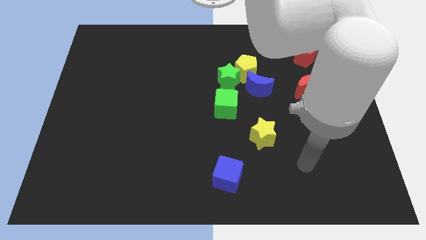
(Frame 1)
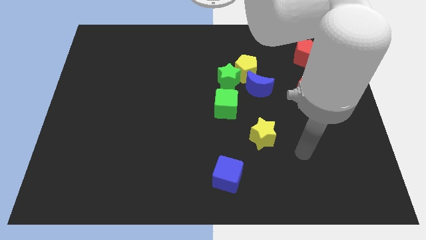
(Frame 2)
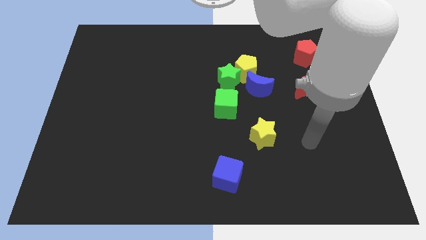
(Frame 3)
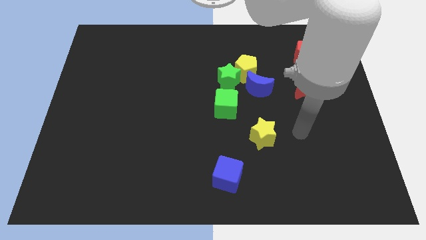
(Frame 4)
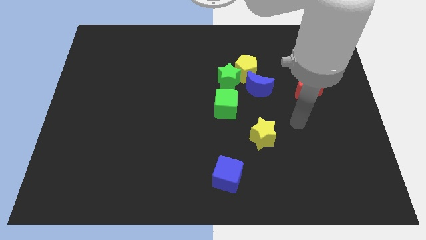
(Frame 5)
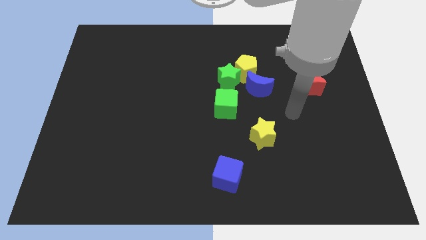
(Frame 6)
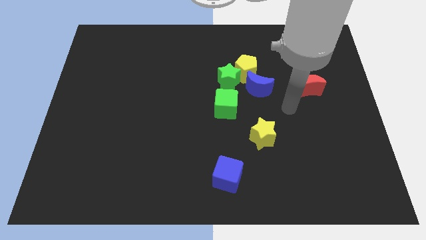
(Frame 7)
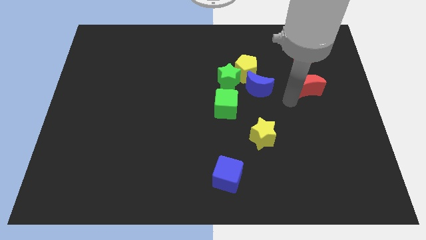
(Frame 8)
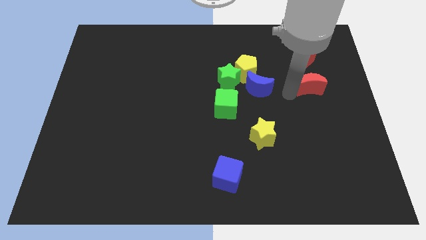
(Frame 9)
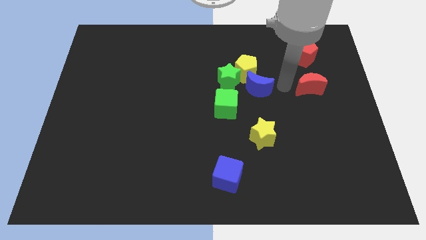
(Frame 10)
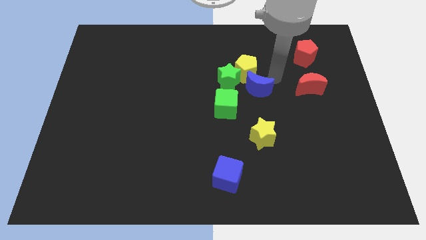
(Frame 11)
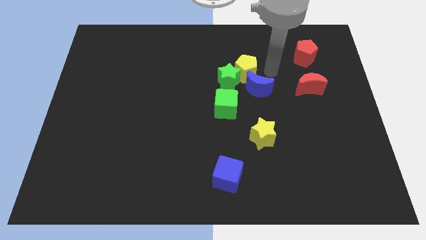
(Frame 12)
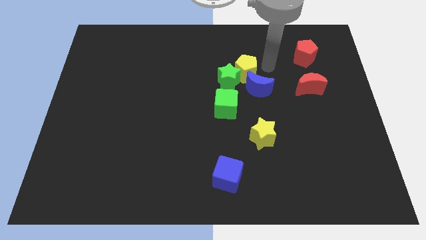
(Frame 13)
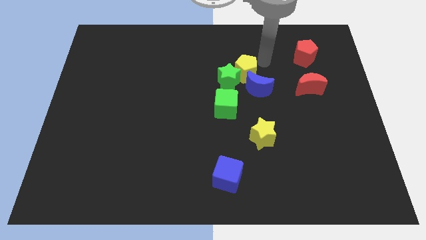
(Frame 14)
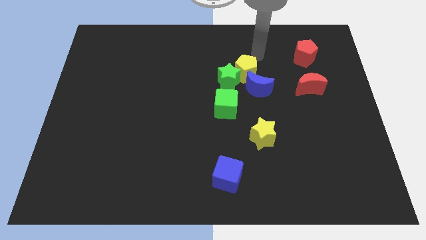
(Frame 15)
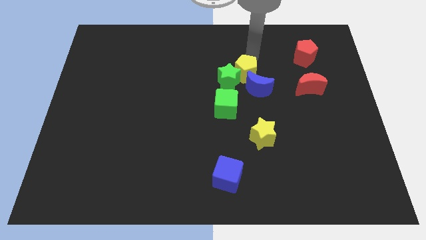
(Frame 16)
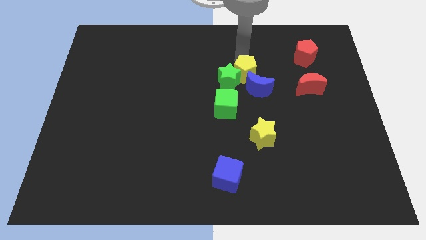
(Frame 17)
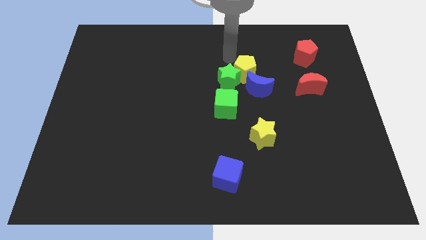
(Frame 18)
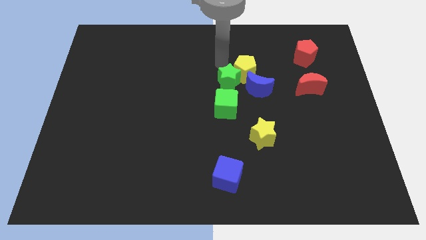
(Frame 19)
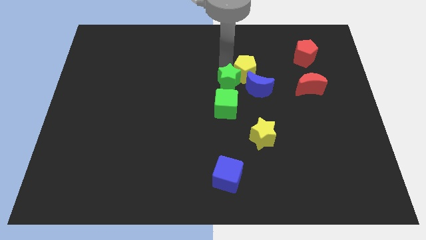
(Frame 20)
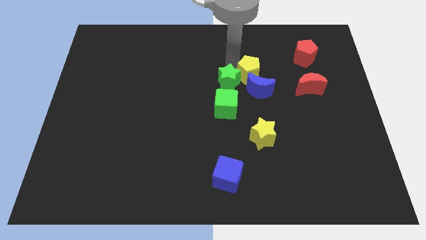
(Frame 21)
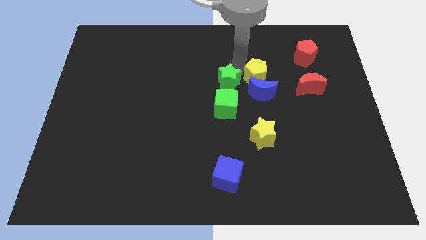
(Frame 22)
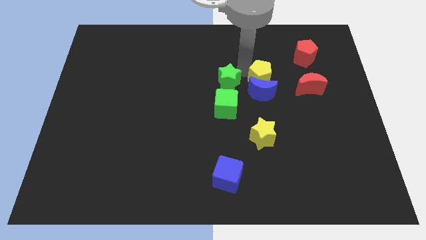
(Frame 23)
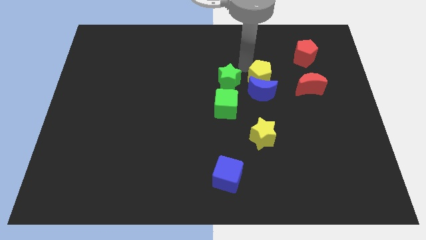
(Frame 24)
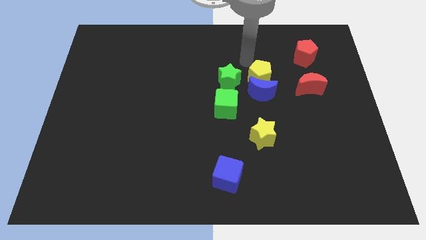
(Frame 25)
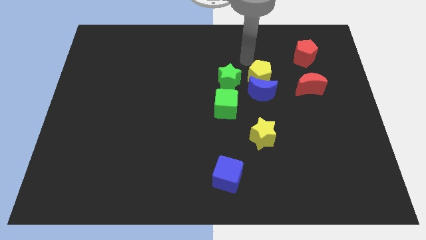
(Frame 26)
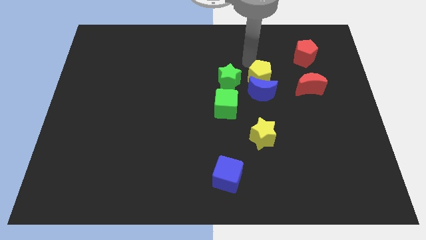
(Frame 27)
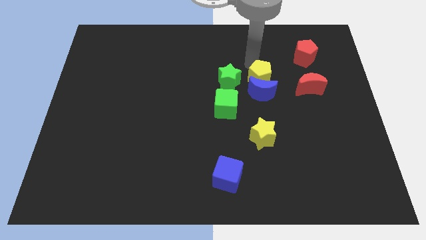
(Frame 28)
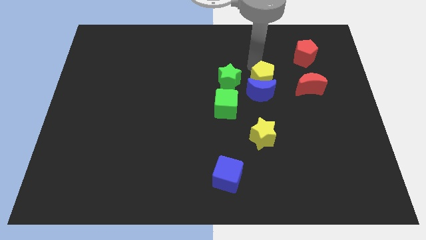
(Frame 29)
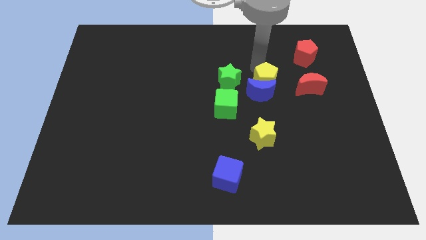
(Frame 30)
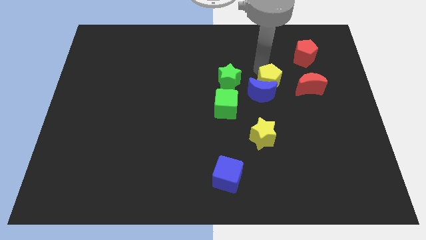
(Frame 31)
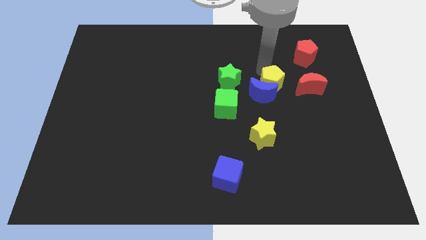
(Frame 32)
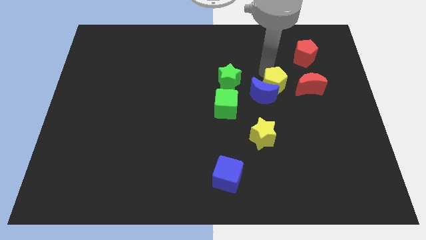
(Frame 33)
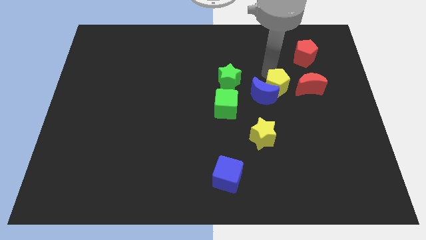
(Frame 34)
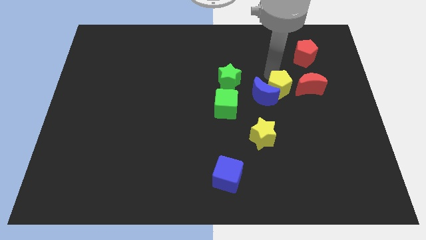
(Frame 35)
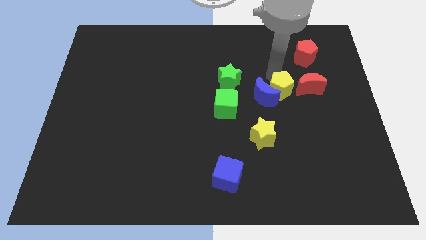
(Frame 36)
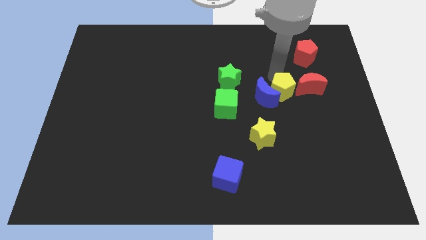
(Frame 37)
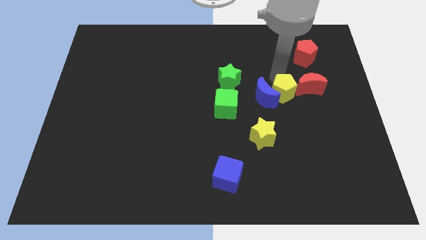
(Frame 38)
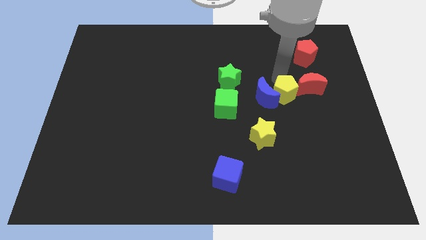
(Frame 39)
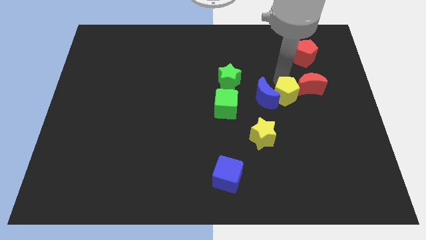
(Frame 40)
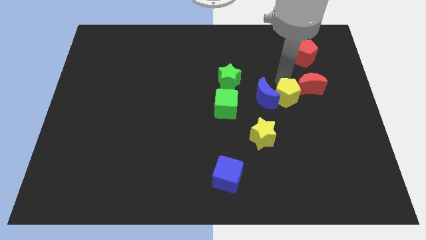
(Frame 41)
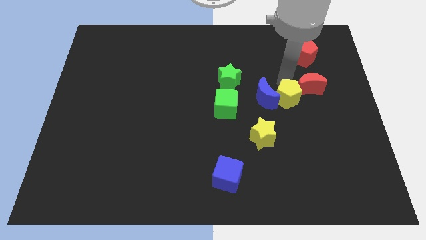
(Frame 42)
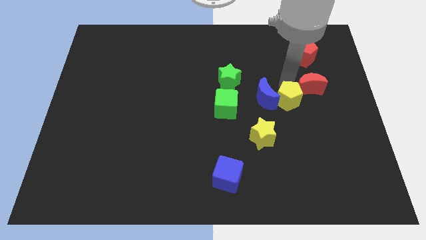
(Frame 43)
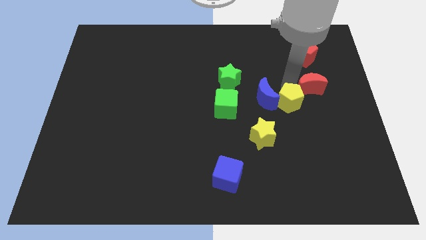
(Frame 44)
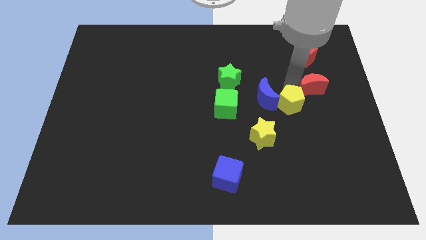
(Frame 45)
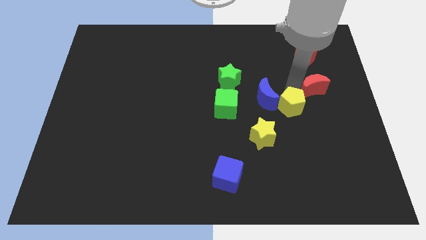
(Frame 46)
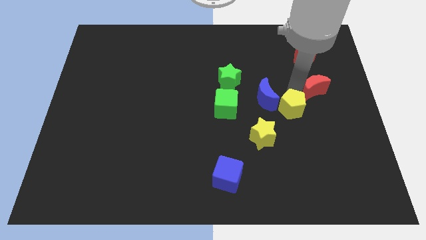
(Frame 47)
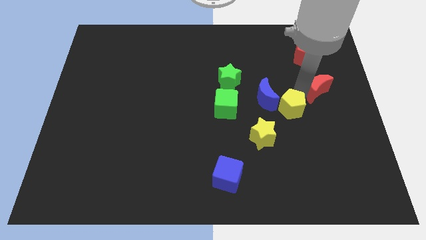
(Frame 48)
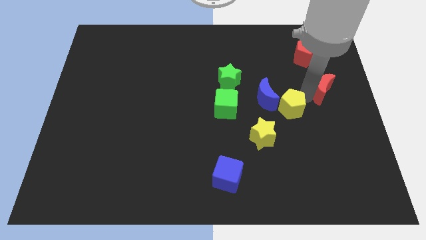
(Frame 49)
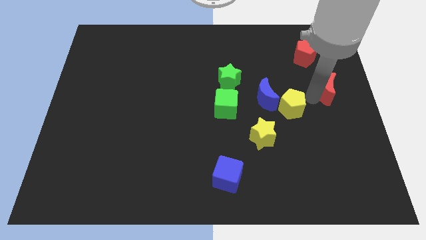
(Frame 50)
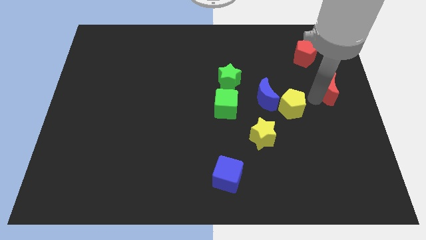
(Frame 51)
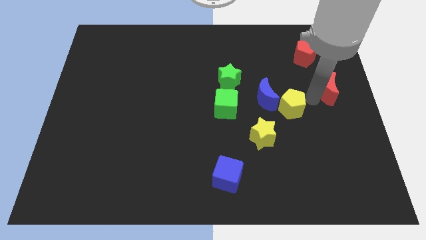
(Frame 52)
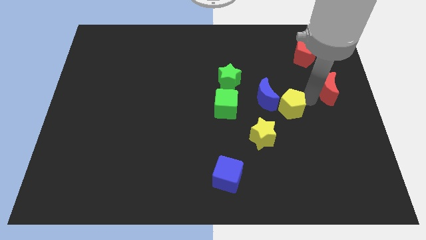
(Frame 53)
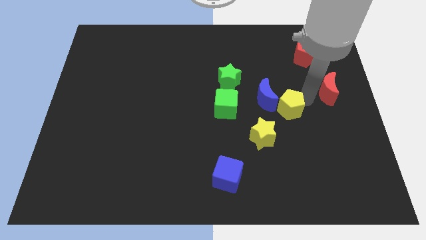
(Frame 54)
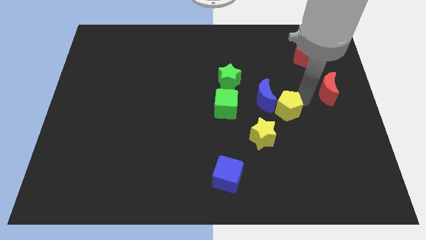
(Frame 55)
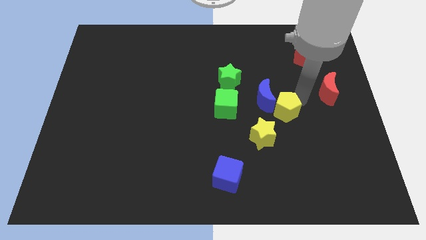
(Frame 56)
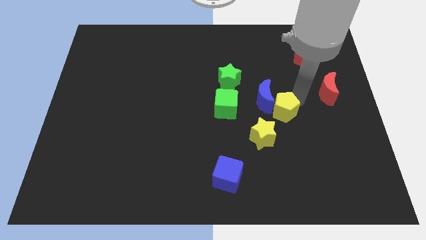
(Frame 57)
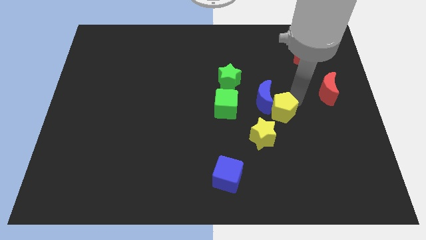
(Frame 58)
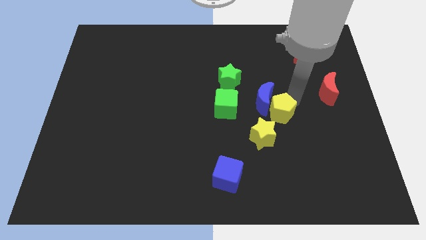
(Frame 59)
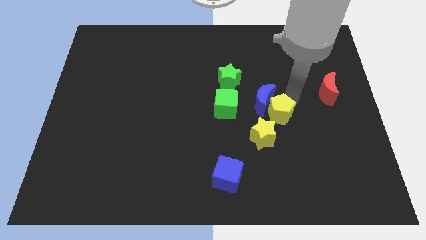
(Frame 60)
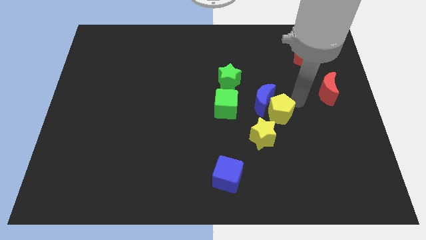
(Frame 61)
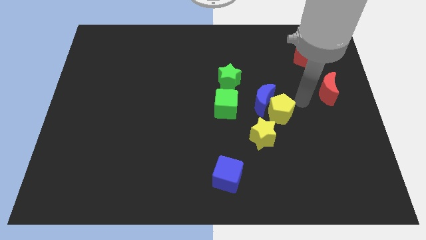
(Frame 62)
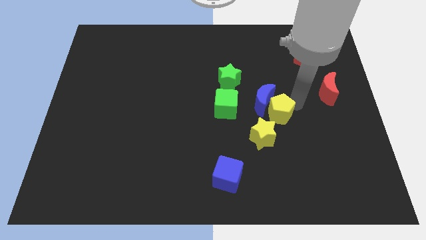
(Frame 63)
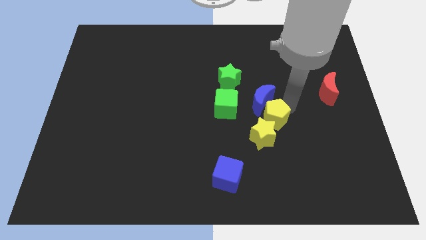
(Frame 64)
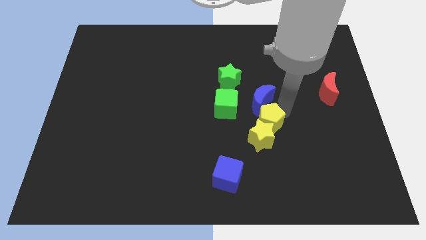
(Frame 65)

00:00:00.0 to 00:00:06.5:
put the yellow pentagon to the bottom right side of the green cube
